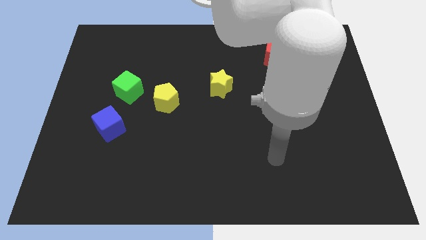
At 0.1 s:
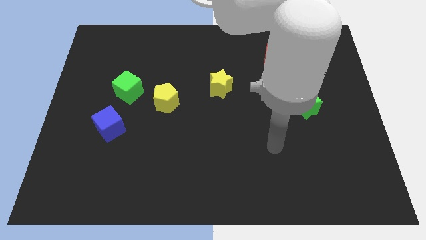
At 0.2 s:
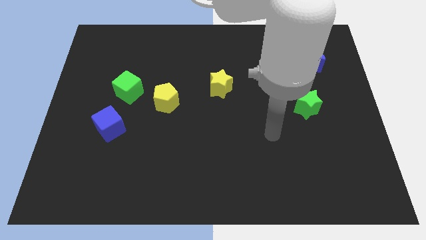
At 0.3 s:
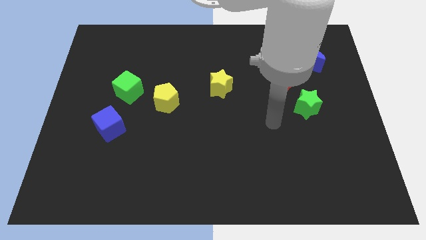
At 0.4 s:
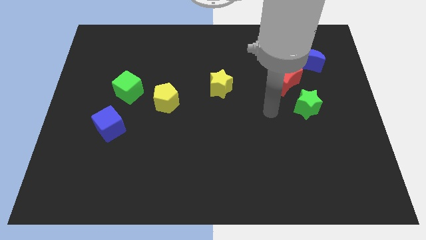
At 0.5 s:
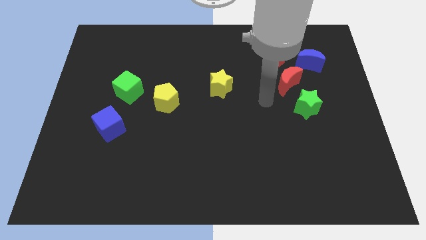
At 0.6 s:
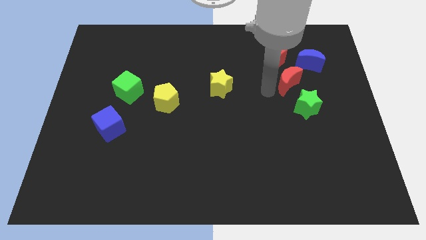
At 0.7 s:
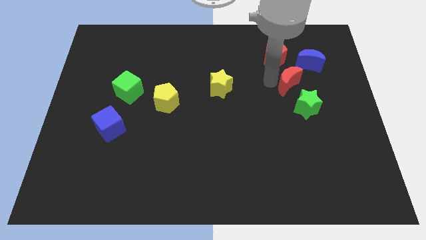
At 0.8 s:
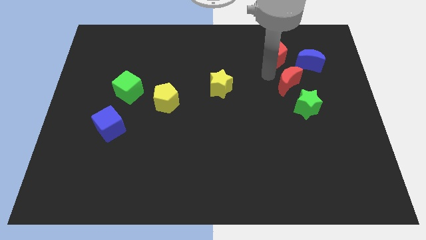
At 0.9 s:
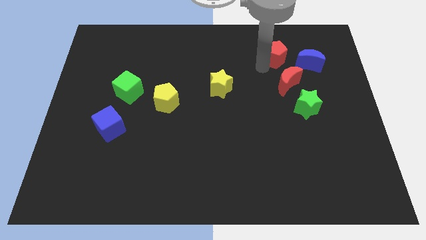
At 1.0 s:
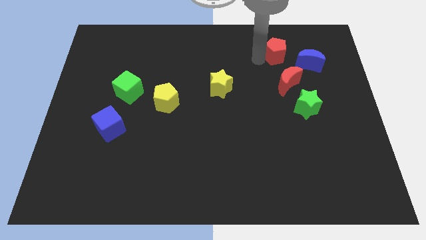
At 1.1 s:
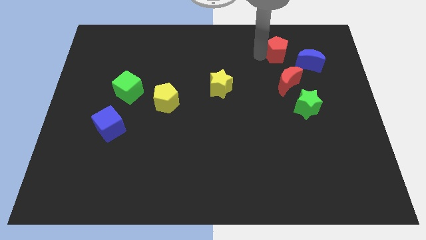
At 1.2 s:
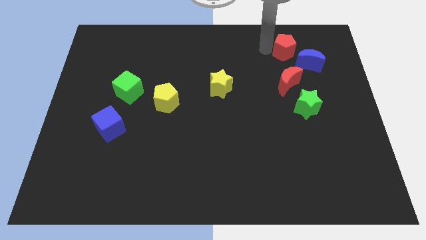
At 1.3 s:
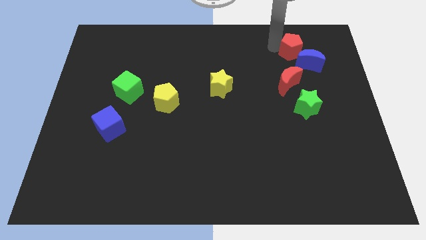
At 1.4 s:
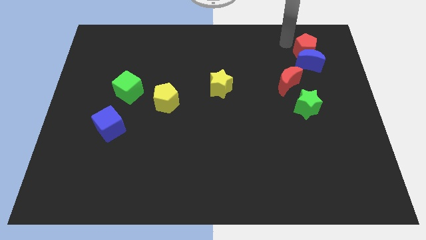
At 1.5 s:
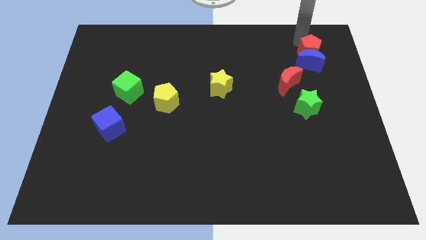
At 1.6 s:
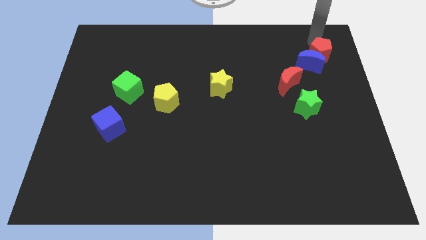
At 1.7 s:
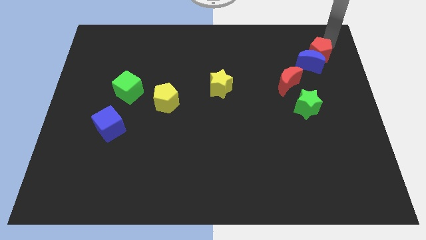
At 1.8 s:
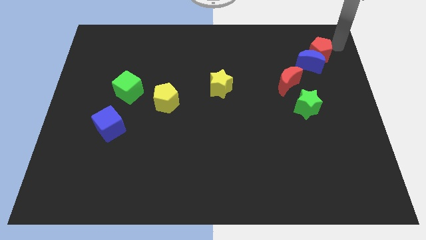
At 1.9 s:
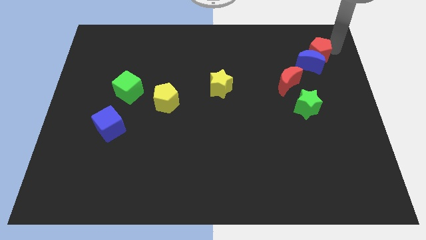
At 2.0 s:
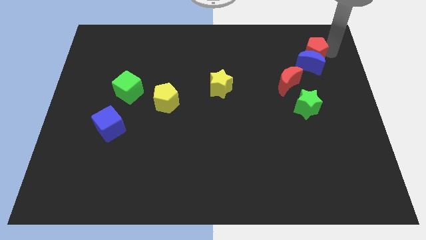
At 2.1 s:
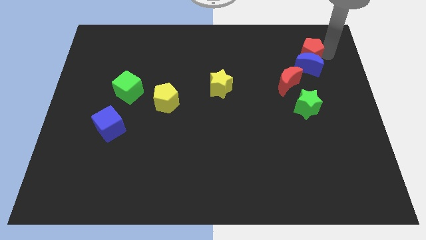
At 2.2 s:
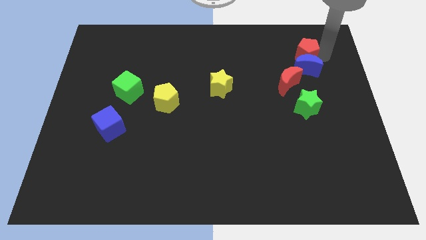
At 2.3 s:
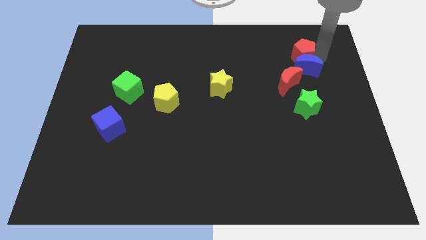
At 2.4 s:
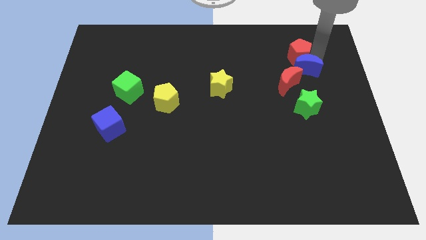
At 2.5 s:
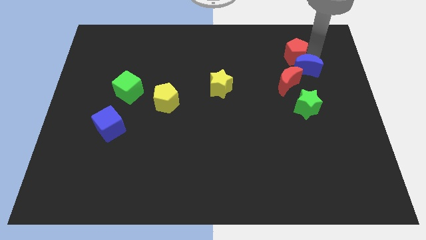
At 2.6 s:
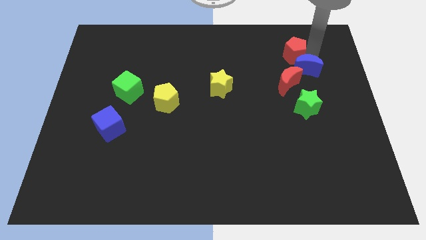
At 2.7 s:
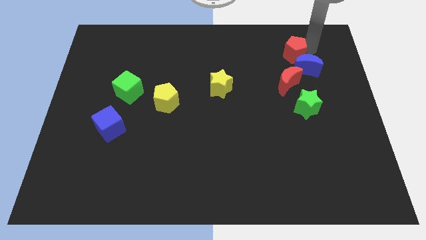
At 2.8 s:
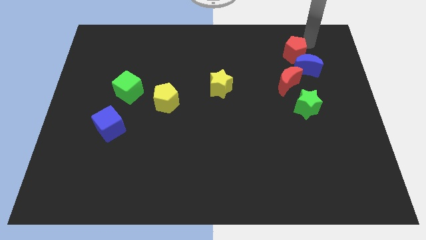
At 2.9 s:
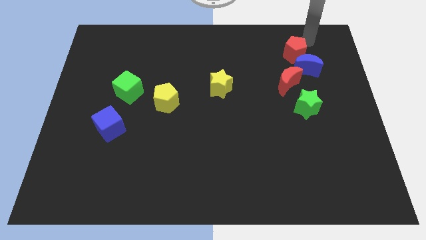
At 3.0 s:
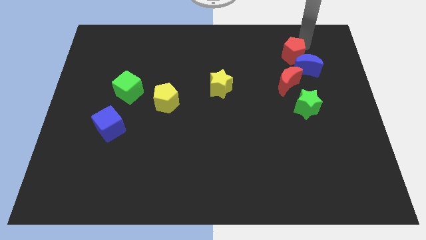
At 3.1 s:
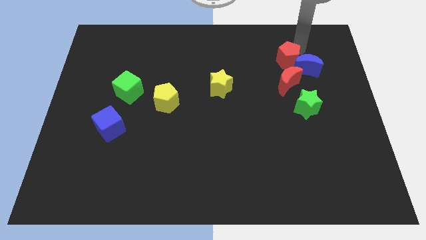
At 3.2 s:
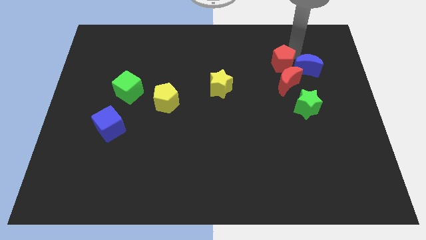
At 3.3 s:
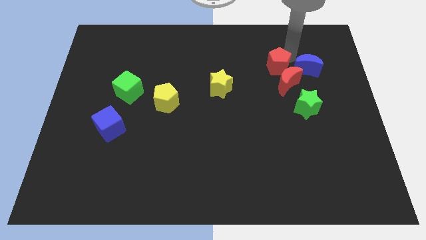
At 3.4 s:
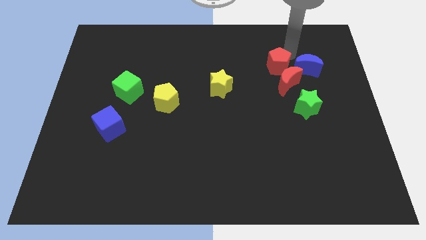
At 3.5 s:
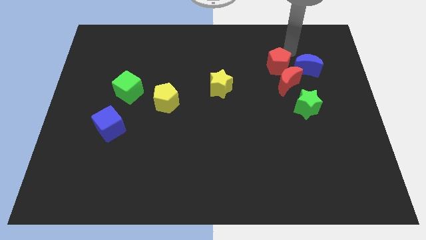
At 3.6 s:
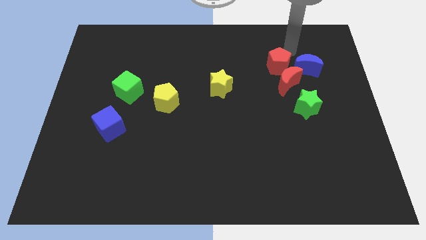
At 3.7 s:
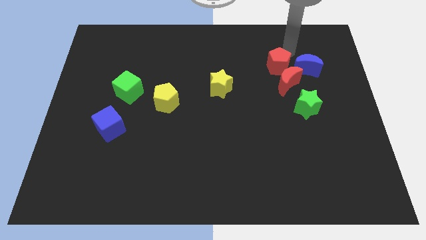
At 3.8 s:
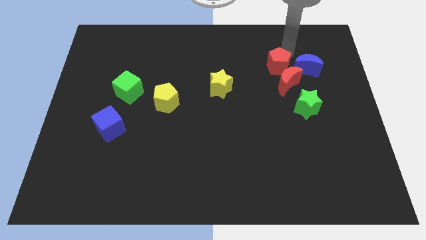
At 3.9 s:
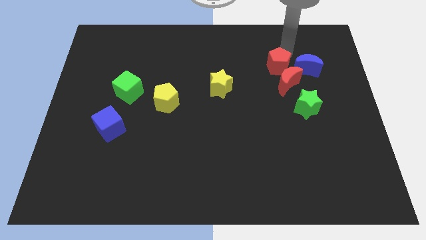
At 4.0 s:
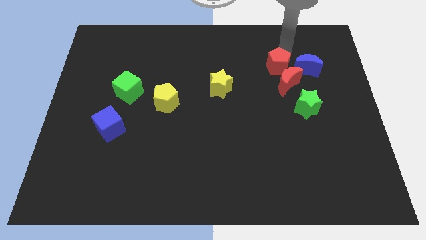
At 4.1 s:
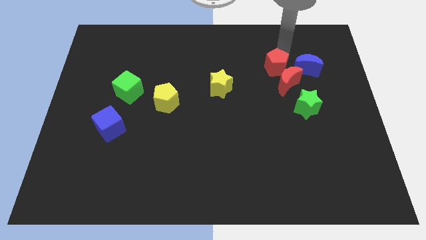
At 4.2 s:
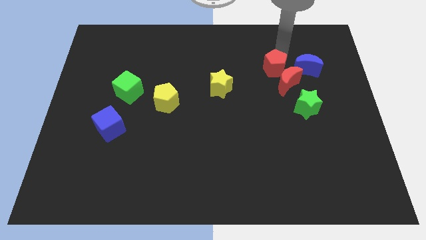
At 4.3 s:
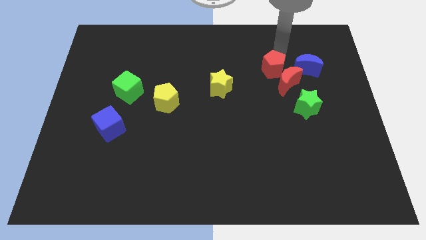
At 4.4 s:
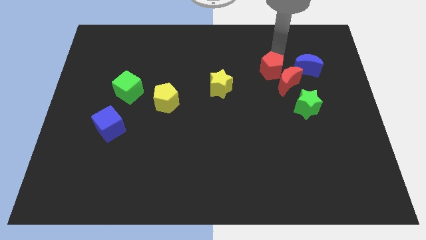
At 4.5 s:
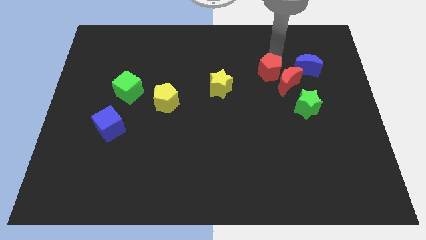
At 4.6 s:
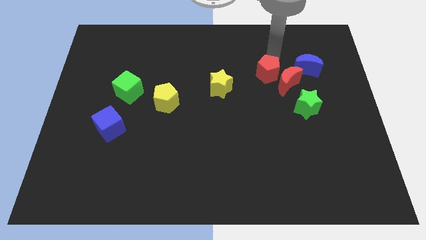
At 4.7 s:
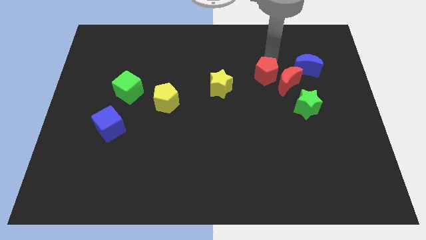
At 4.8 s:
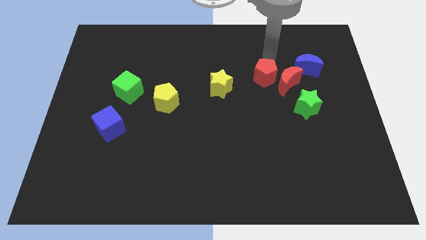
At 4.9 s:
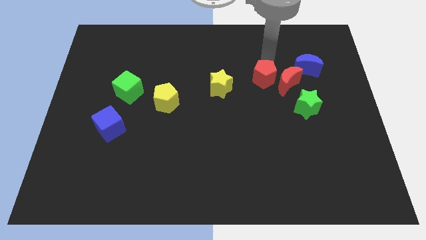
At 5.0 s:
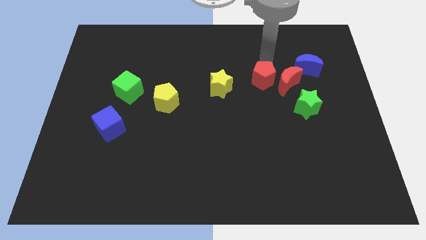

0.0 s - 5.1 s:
slide the red pentagon somewhat downwards

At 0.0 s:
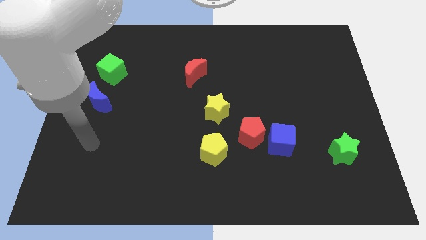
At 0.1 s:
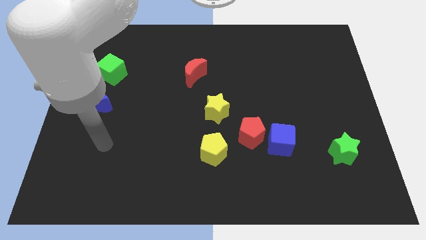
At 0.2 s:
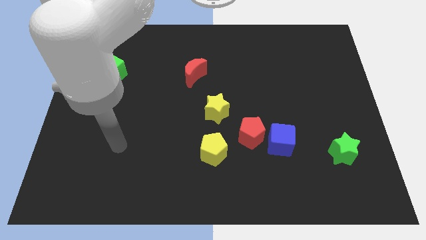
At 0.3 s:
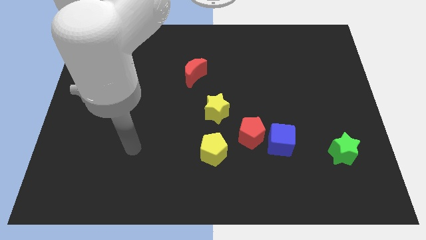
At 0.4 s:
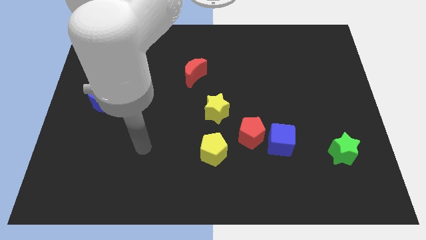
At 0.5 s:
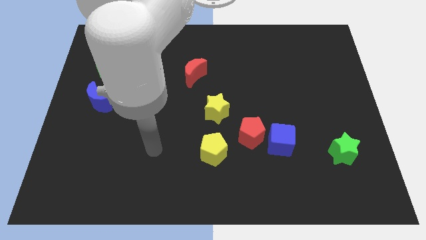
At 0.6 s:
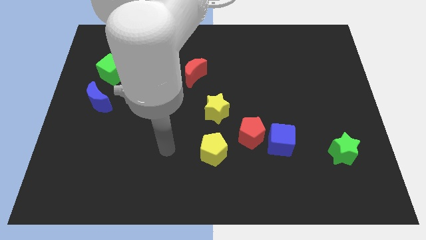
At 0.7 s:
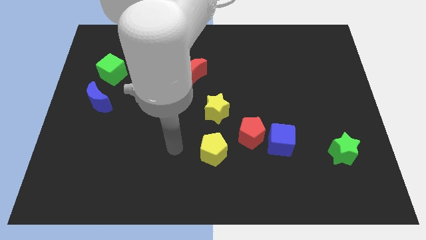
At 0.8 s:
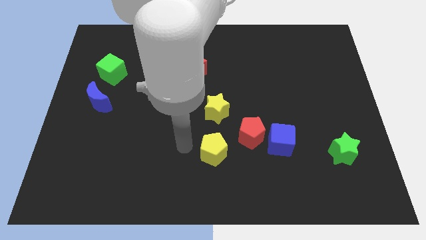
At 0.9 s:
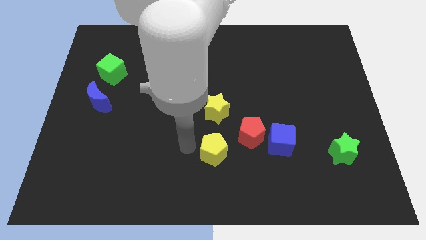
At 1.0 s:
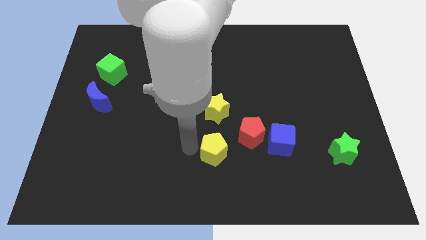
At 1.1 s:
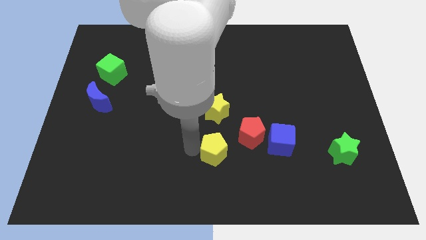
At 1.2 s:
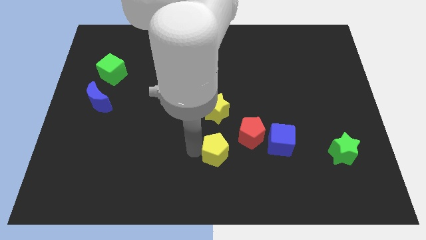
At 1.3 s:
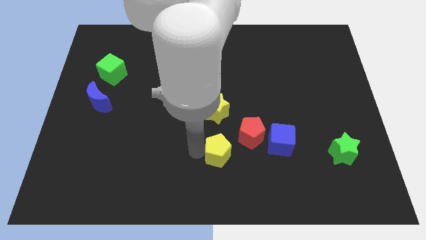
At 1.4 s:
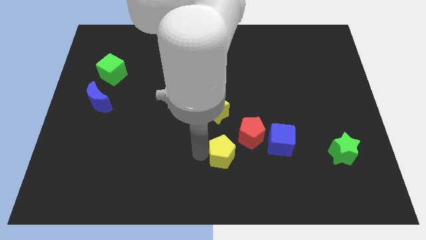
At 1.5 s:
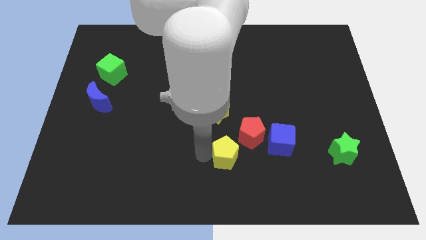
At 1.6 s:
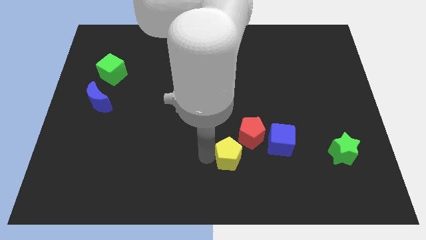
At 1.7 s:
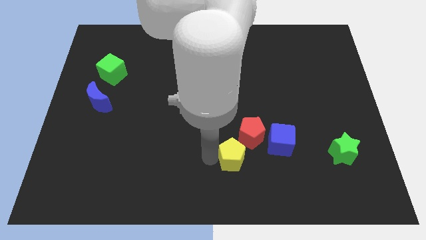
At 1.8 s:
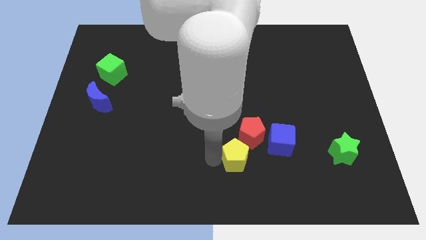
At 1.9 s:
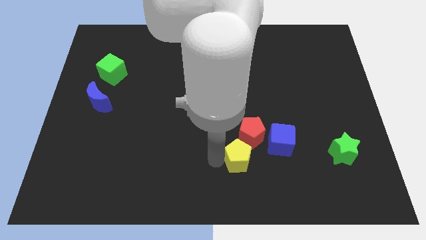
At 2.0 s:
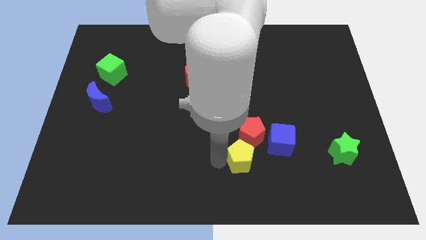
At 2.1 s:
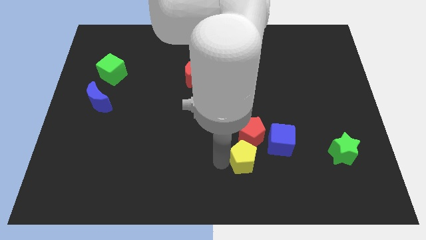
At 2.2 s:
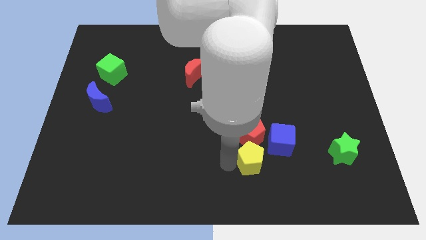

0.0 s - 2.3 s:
push the yellow pentagon right a little bit
